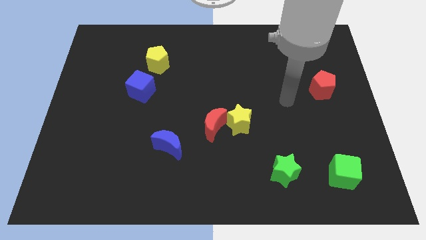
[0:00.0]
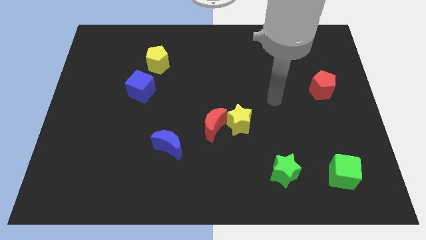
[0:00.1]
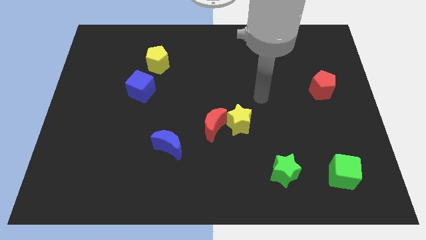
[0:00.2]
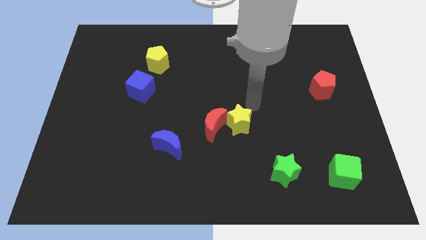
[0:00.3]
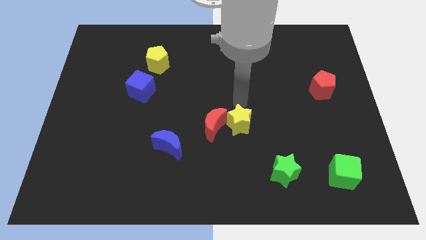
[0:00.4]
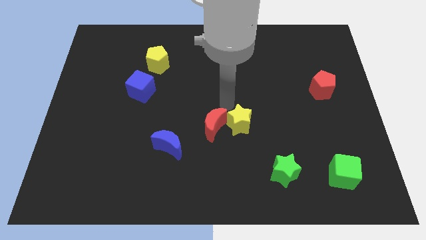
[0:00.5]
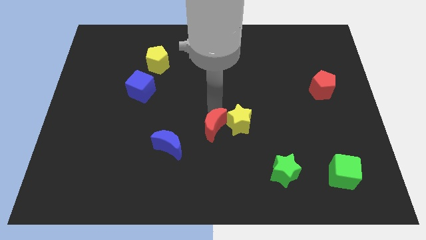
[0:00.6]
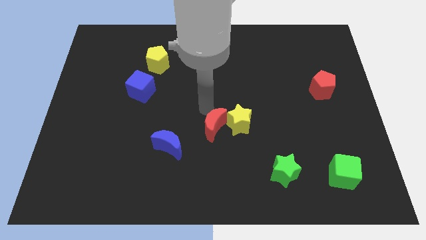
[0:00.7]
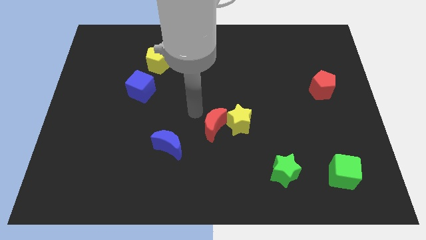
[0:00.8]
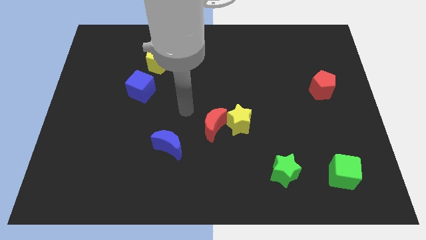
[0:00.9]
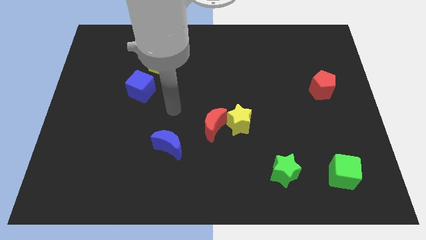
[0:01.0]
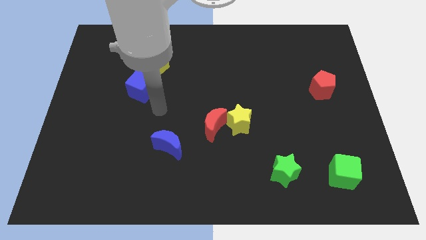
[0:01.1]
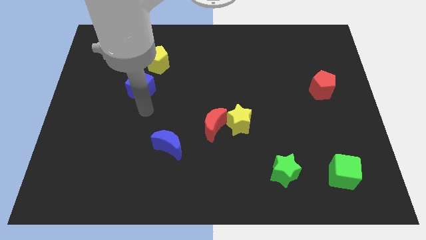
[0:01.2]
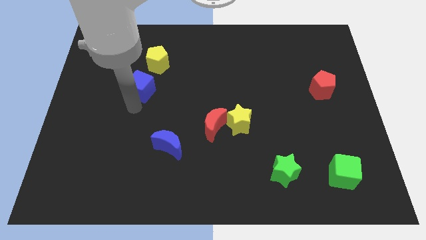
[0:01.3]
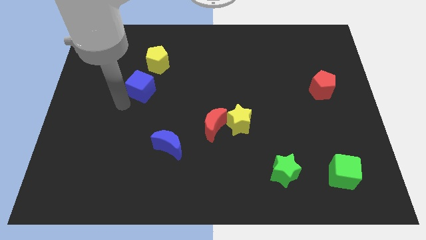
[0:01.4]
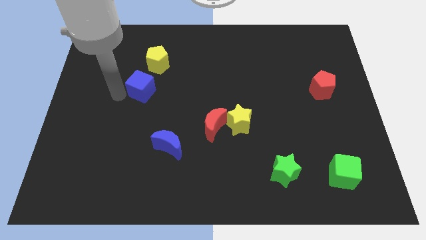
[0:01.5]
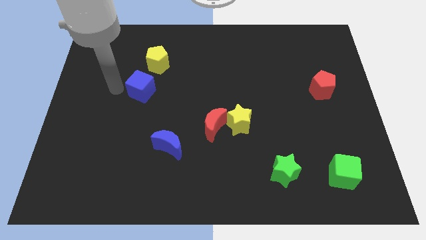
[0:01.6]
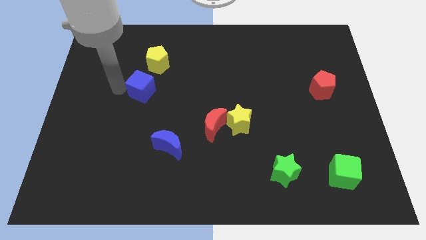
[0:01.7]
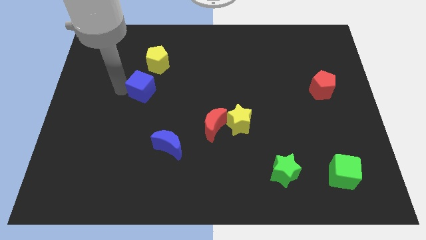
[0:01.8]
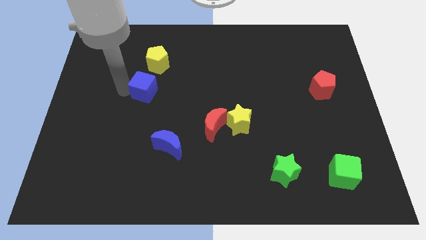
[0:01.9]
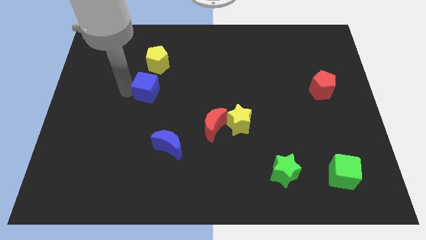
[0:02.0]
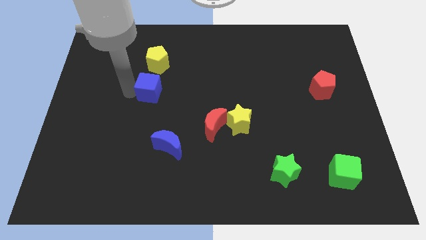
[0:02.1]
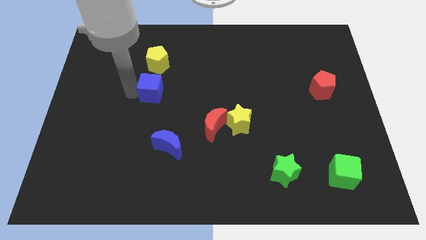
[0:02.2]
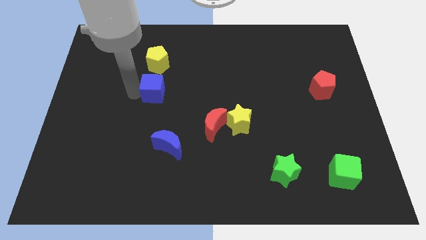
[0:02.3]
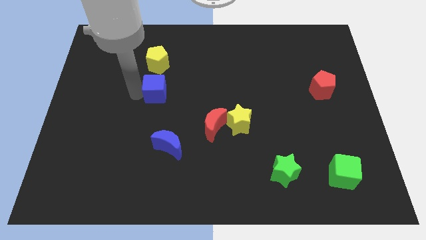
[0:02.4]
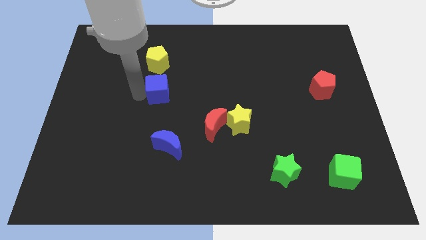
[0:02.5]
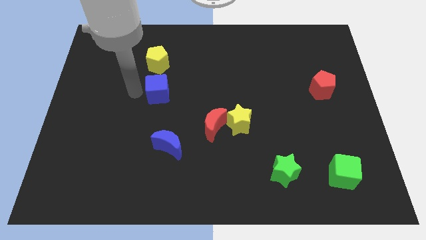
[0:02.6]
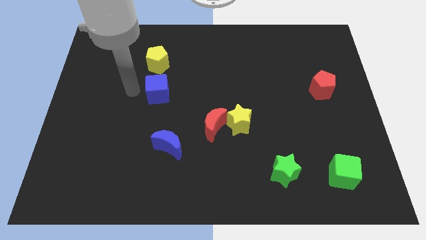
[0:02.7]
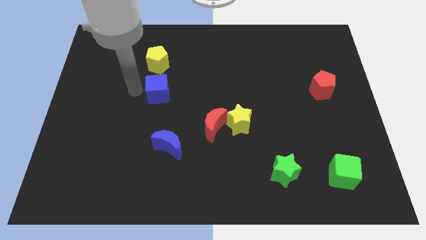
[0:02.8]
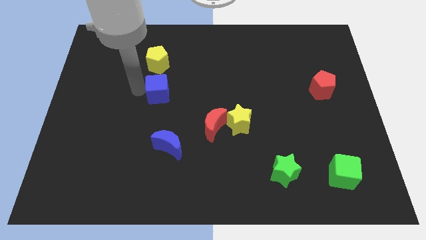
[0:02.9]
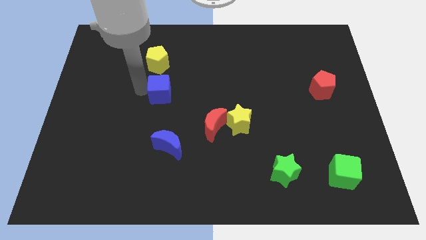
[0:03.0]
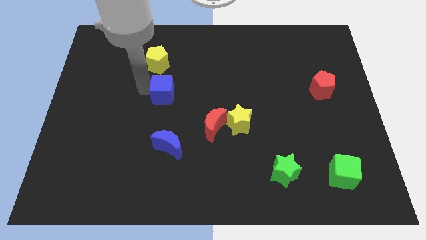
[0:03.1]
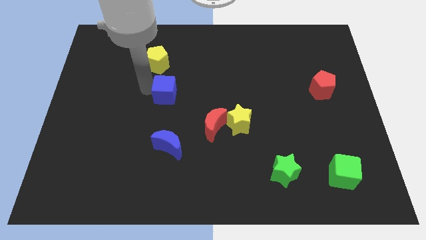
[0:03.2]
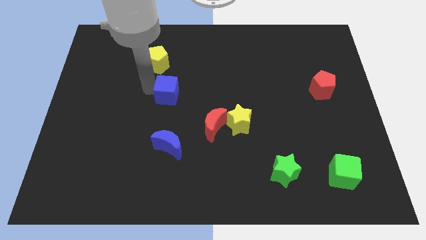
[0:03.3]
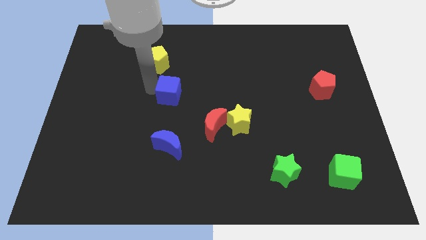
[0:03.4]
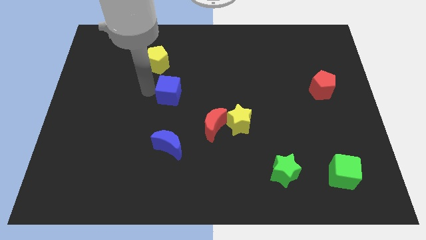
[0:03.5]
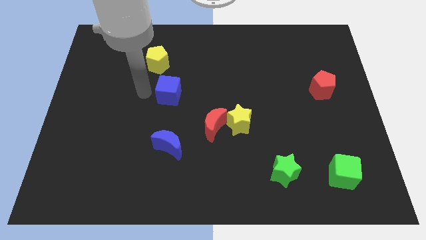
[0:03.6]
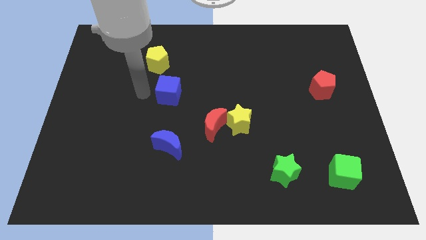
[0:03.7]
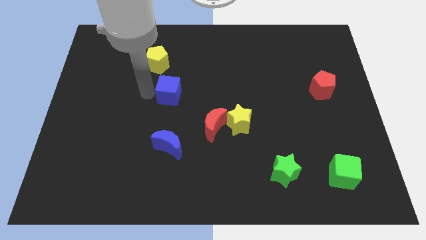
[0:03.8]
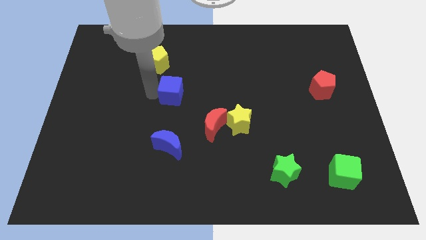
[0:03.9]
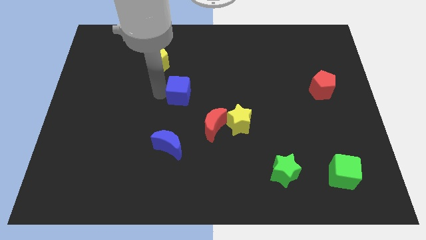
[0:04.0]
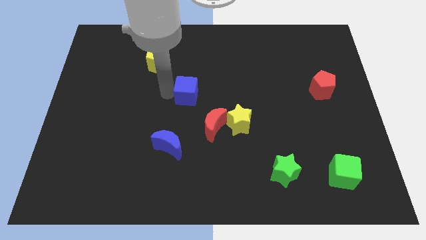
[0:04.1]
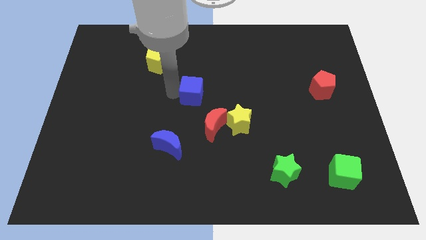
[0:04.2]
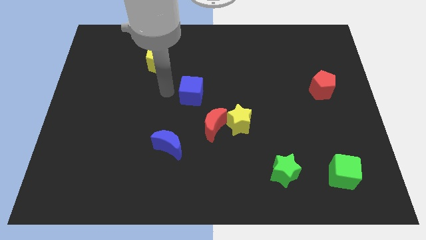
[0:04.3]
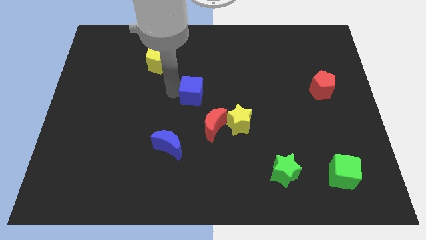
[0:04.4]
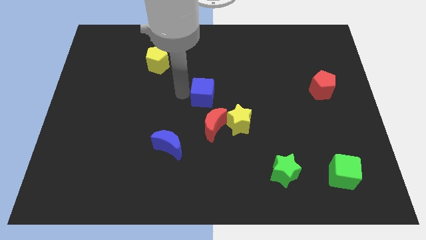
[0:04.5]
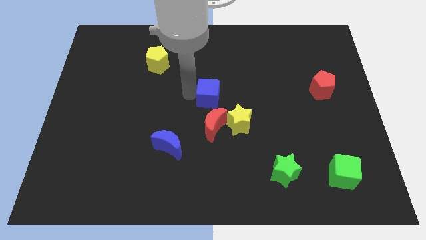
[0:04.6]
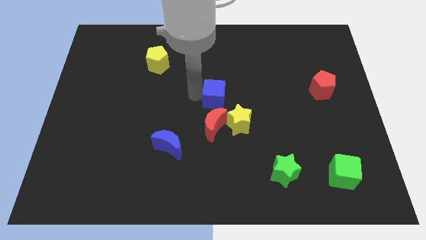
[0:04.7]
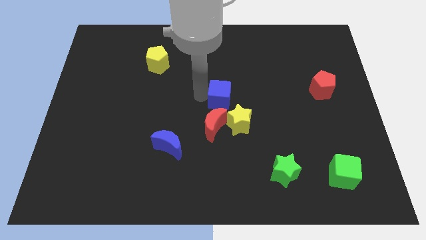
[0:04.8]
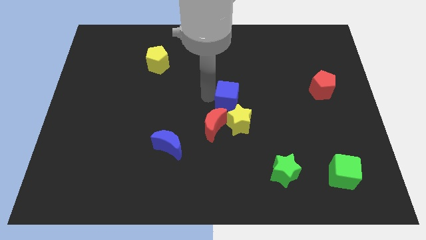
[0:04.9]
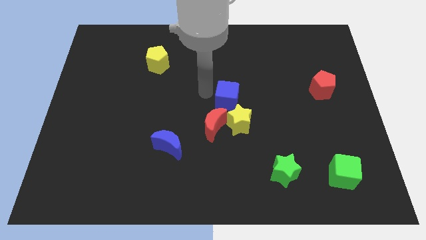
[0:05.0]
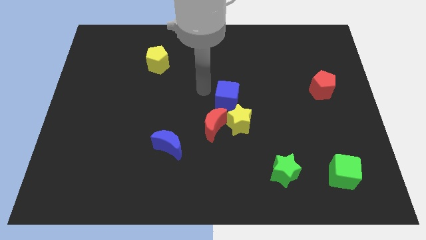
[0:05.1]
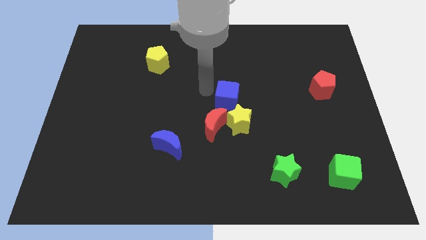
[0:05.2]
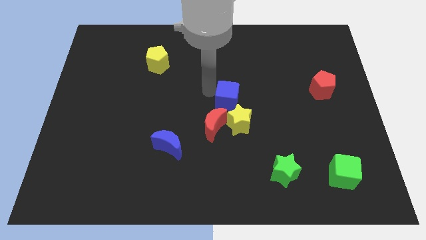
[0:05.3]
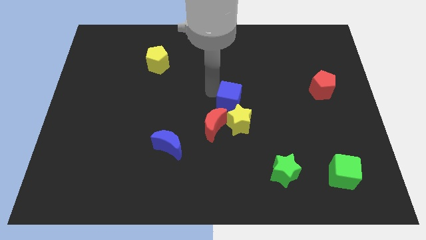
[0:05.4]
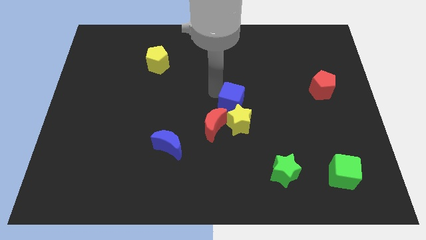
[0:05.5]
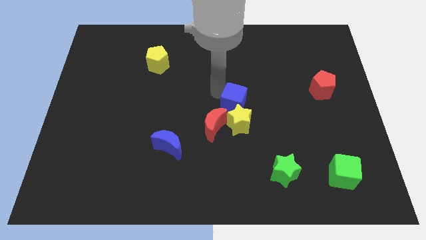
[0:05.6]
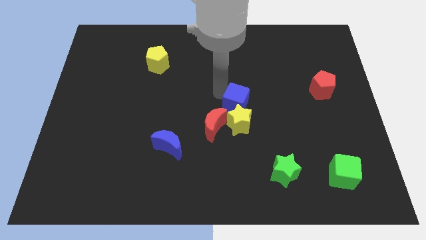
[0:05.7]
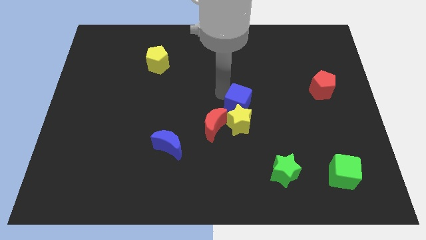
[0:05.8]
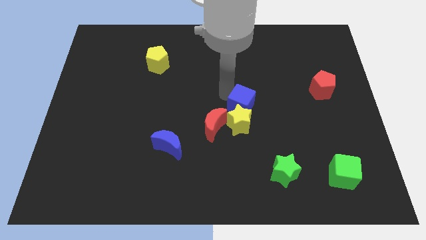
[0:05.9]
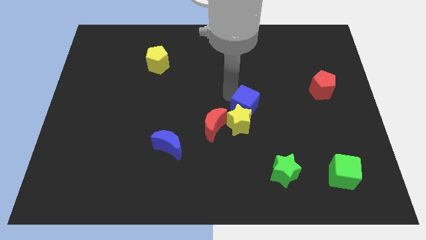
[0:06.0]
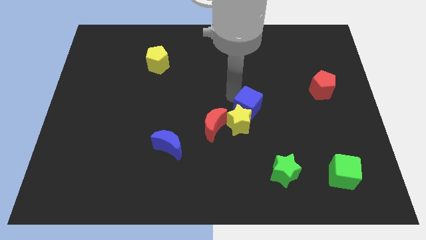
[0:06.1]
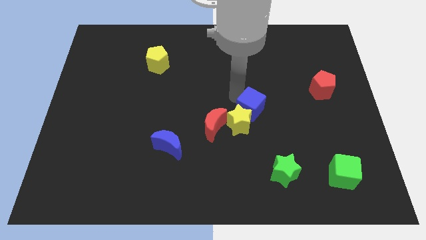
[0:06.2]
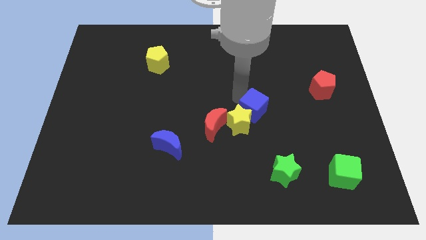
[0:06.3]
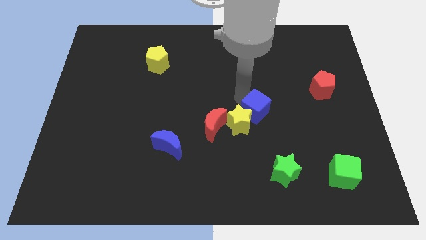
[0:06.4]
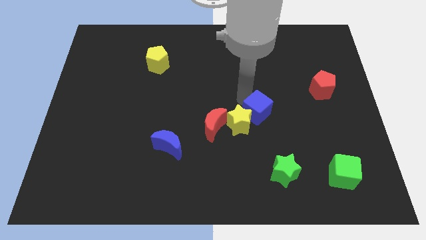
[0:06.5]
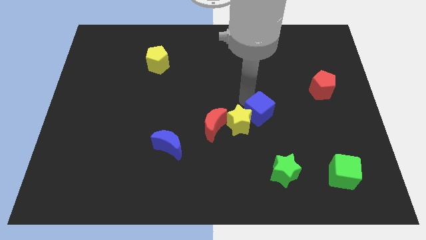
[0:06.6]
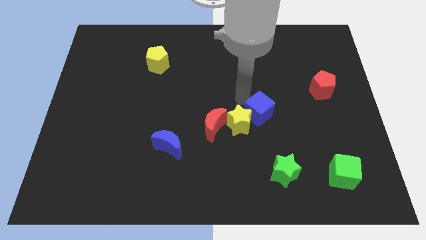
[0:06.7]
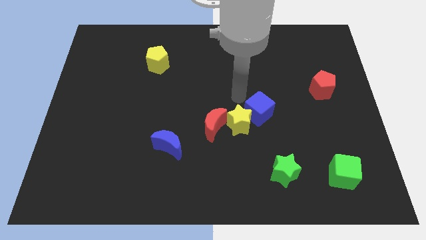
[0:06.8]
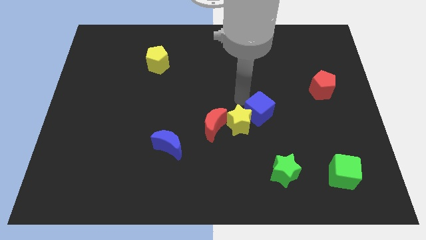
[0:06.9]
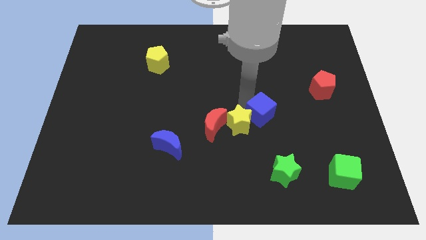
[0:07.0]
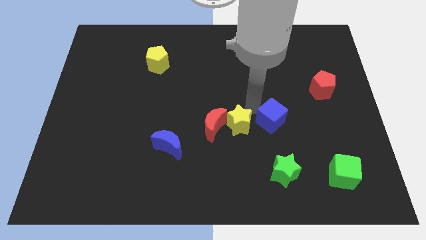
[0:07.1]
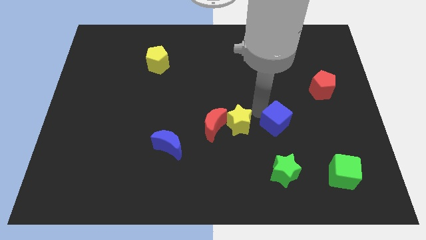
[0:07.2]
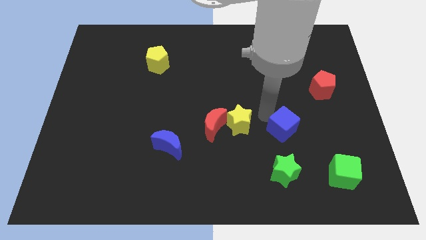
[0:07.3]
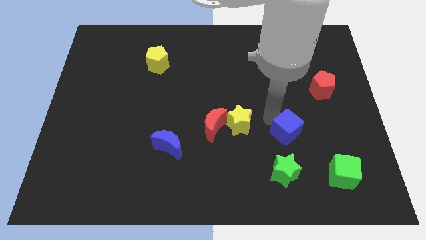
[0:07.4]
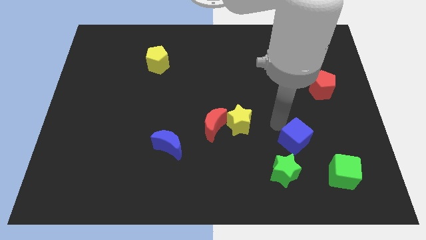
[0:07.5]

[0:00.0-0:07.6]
push the blue cube to the top left of the green cube
